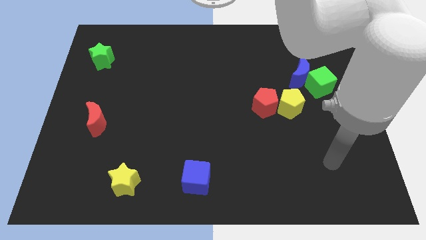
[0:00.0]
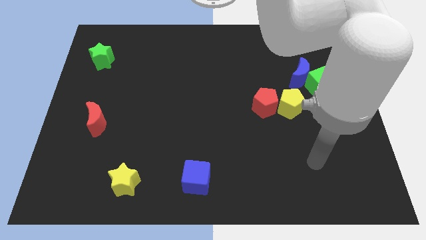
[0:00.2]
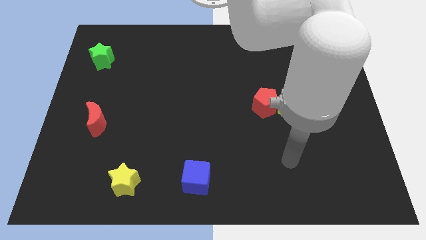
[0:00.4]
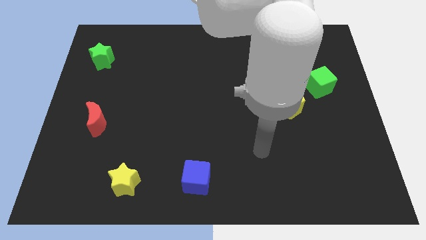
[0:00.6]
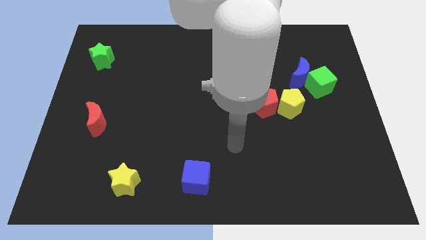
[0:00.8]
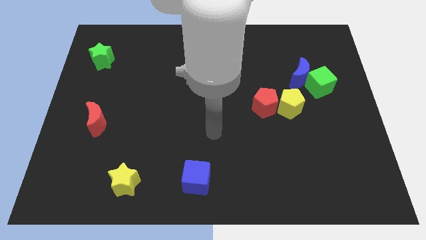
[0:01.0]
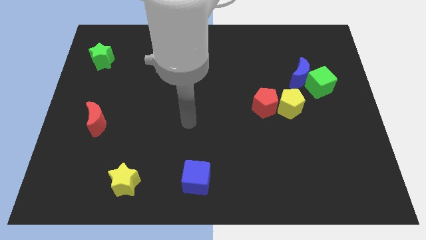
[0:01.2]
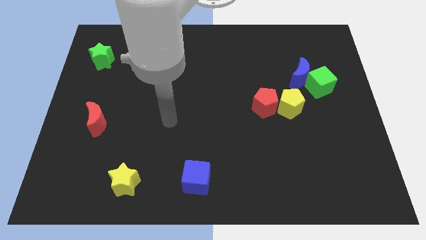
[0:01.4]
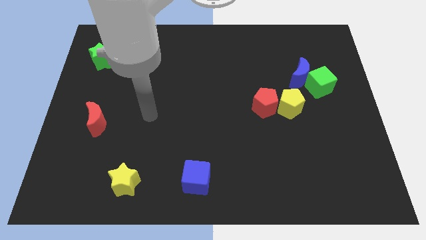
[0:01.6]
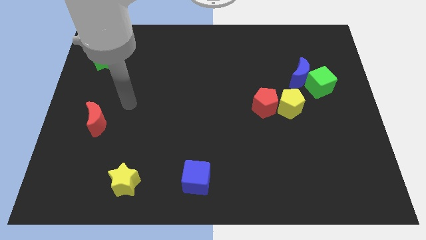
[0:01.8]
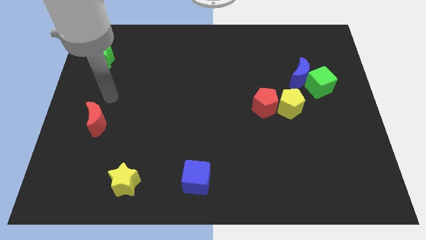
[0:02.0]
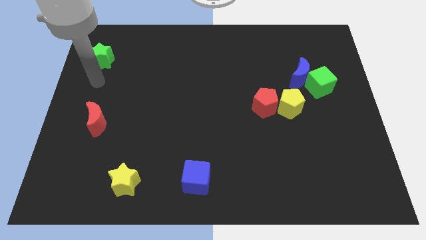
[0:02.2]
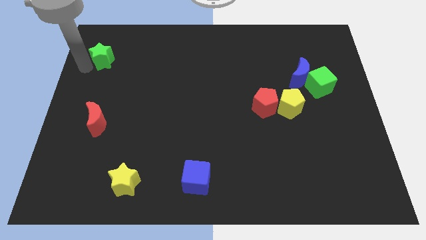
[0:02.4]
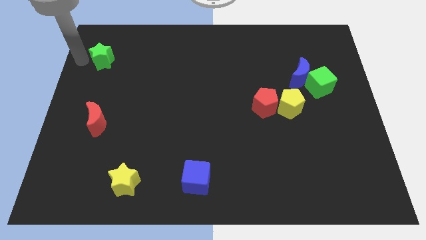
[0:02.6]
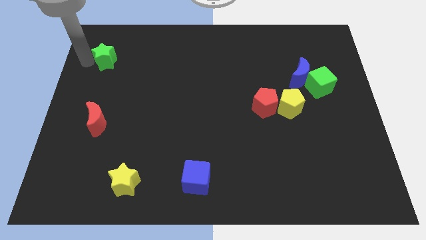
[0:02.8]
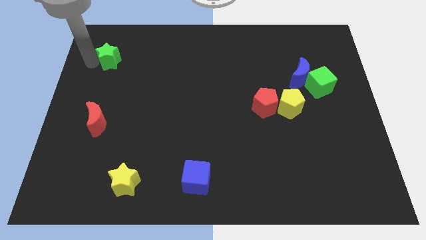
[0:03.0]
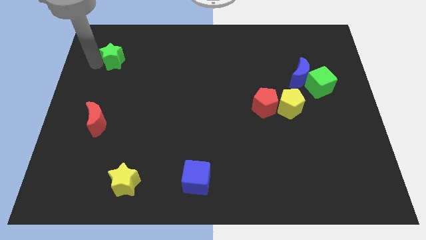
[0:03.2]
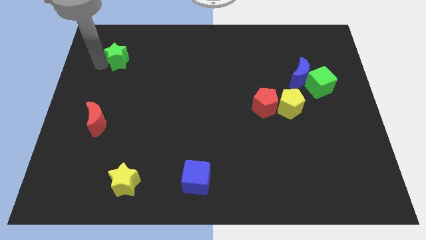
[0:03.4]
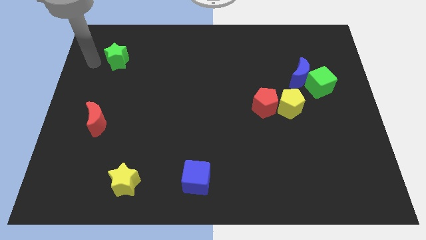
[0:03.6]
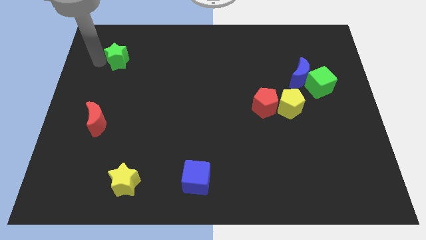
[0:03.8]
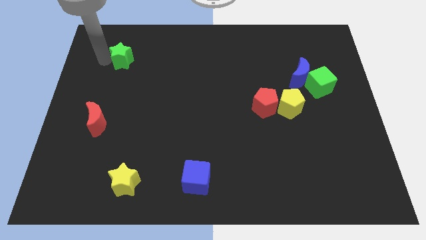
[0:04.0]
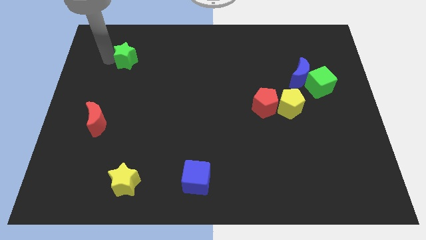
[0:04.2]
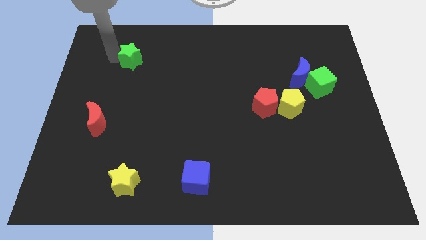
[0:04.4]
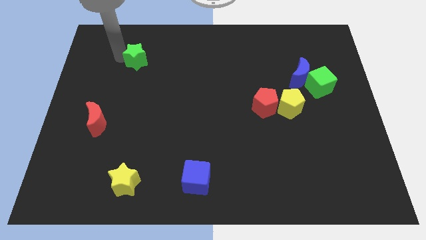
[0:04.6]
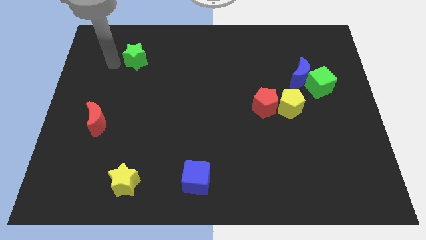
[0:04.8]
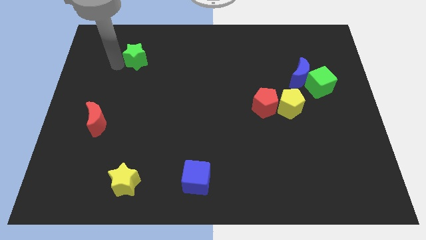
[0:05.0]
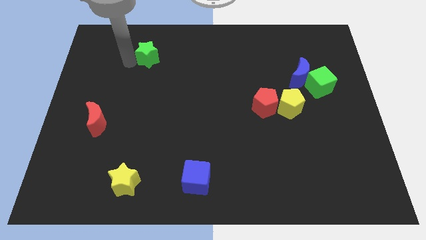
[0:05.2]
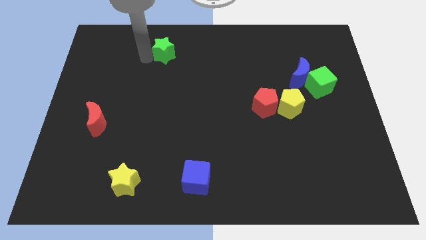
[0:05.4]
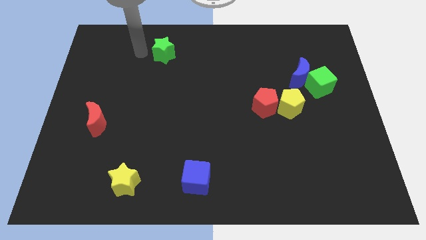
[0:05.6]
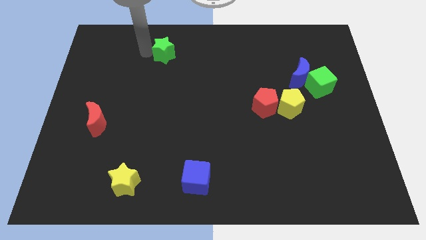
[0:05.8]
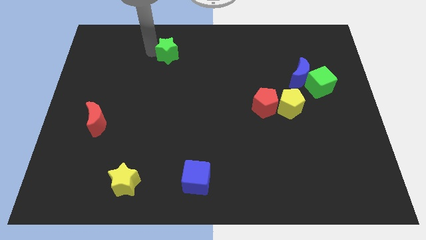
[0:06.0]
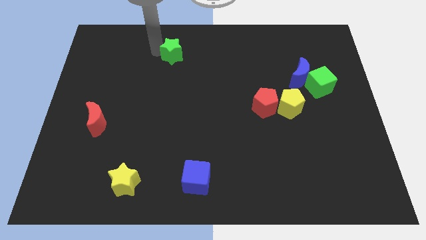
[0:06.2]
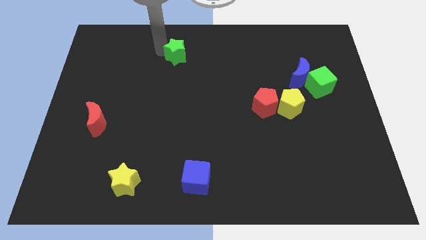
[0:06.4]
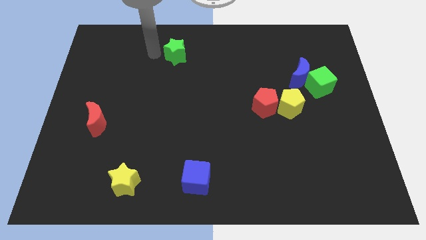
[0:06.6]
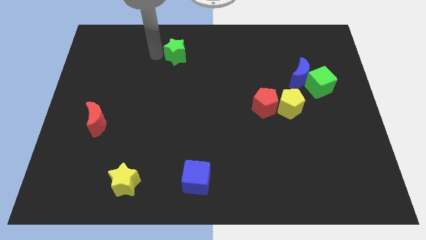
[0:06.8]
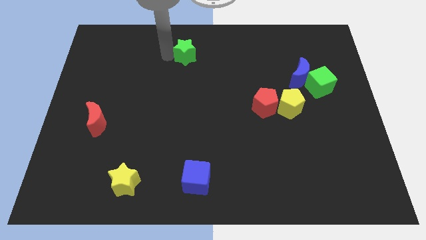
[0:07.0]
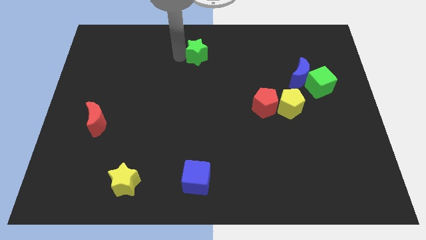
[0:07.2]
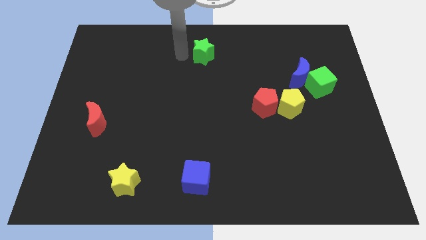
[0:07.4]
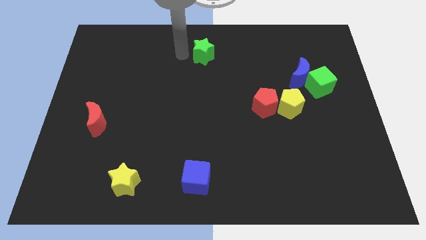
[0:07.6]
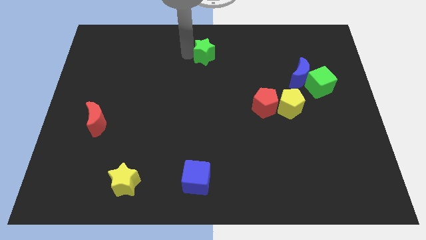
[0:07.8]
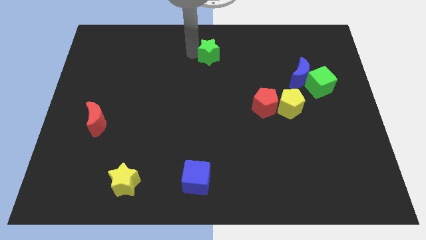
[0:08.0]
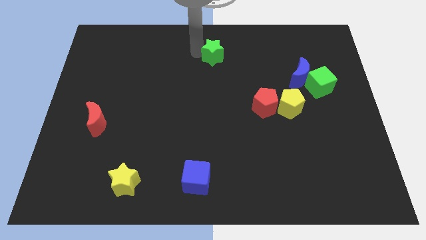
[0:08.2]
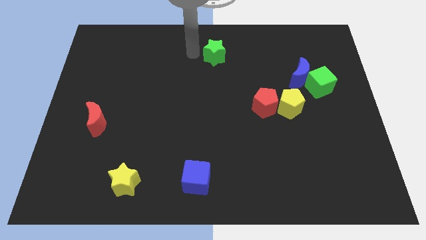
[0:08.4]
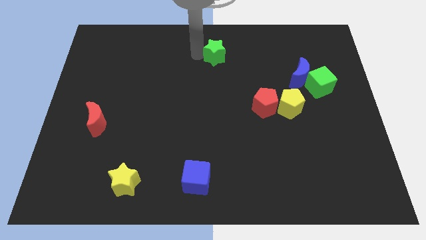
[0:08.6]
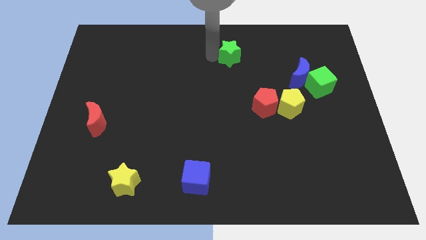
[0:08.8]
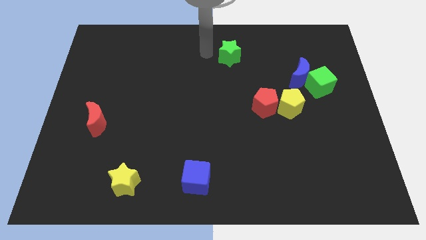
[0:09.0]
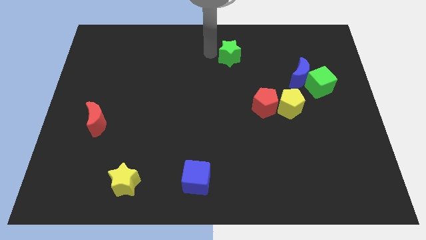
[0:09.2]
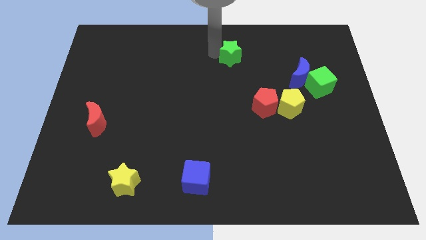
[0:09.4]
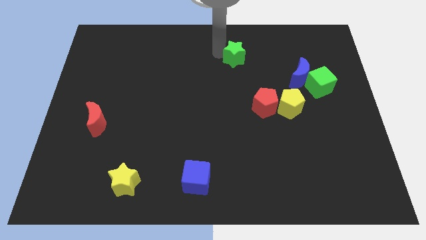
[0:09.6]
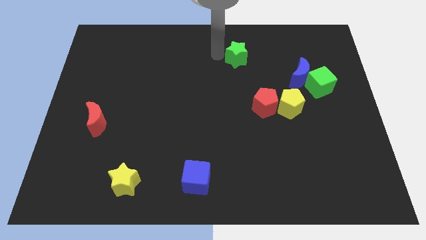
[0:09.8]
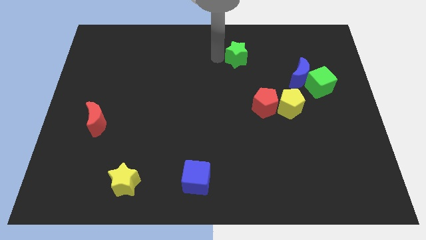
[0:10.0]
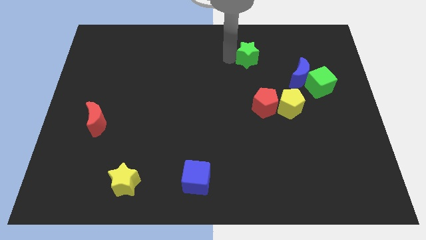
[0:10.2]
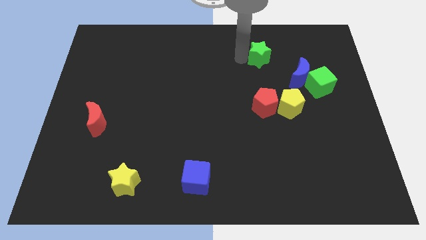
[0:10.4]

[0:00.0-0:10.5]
move the green star diagonally up and to the left of the blue moon

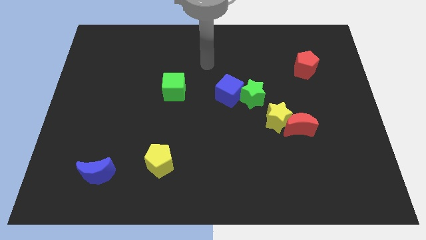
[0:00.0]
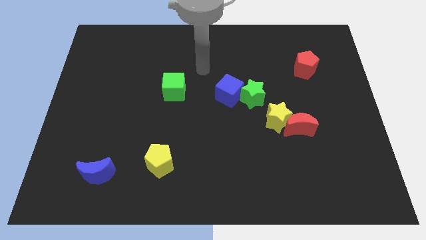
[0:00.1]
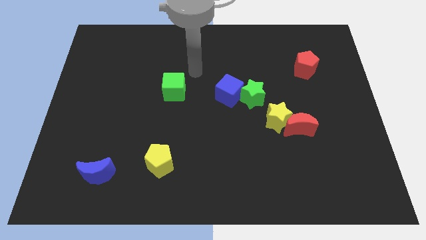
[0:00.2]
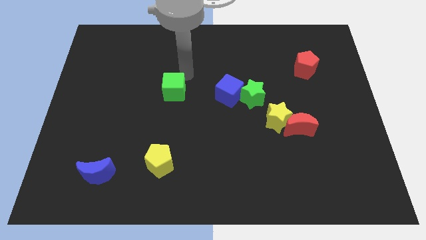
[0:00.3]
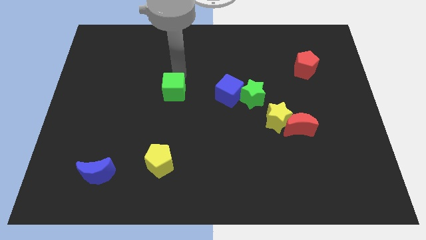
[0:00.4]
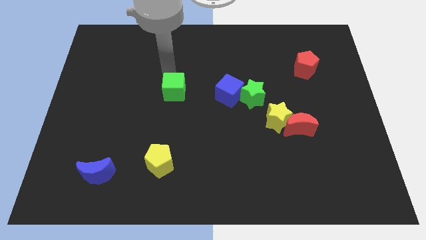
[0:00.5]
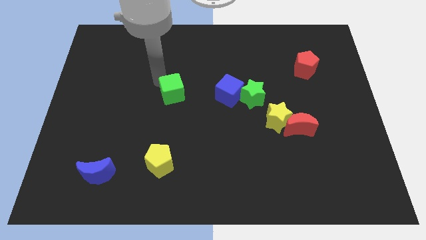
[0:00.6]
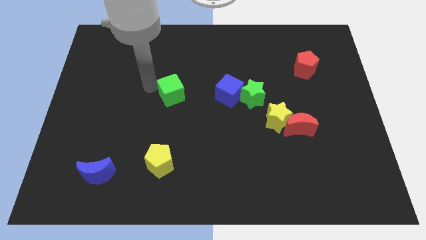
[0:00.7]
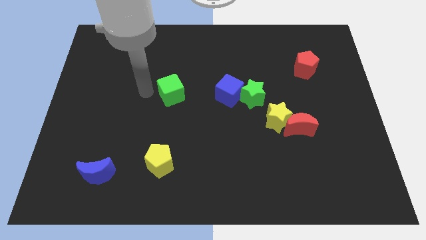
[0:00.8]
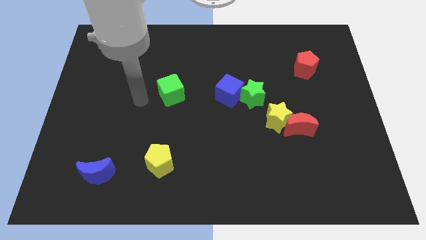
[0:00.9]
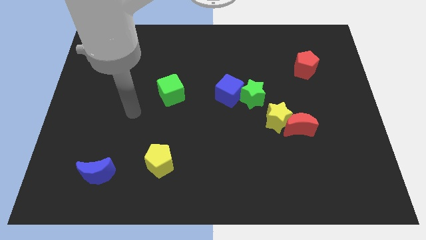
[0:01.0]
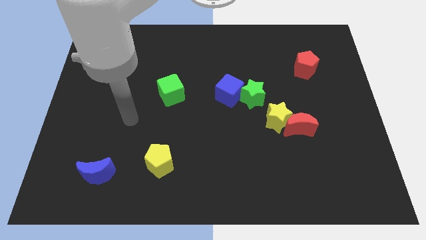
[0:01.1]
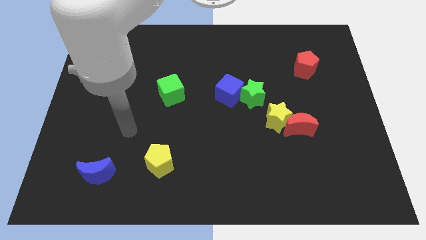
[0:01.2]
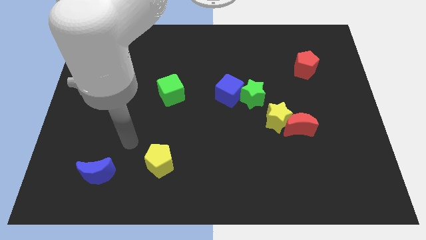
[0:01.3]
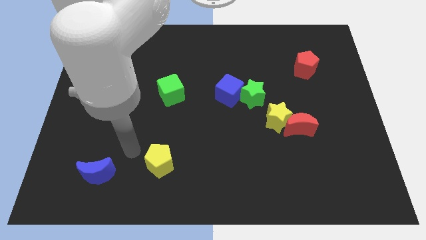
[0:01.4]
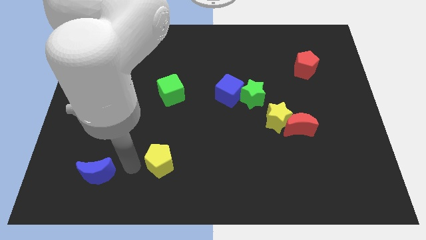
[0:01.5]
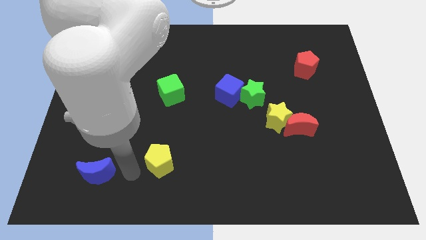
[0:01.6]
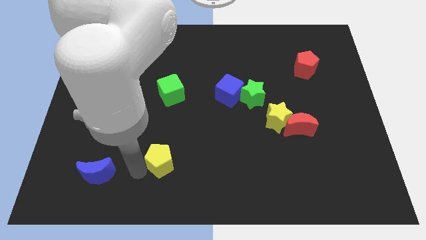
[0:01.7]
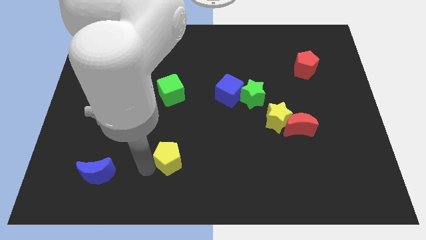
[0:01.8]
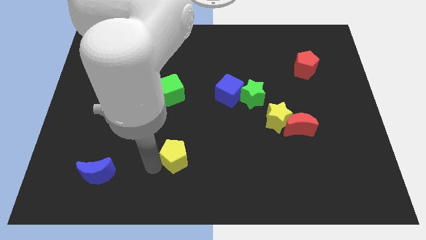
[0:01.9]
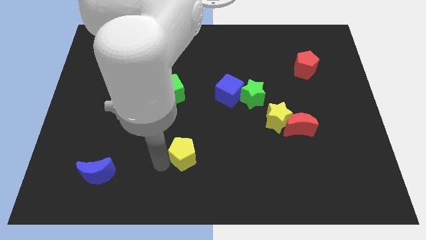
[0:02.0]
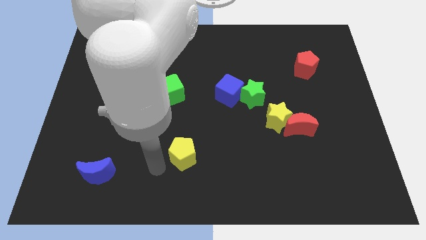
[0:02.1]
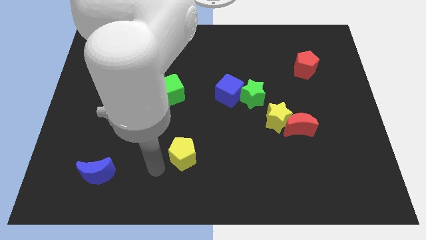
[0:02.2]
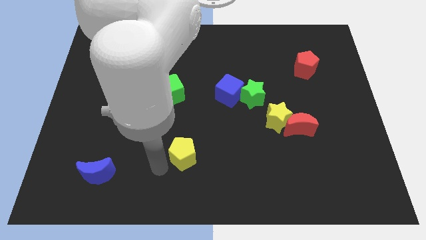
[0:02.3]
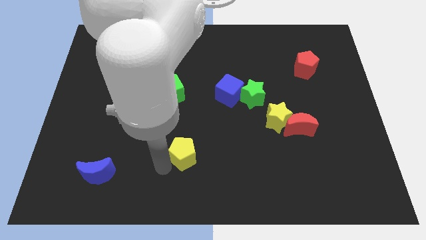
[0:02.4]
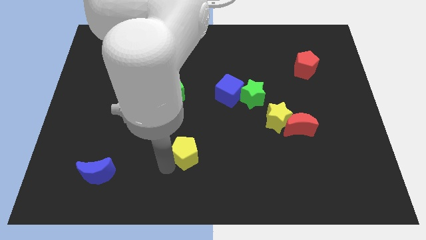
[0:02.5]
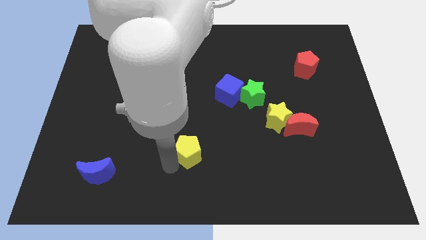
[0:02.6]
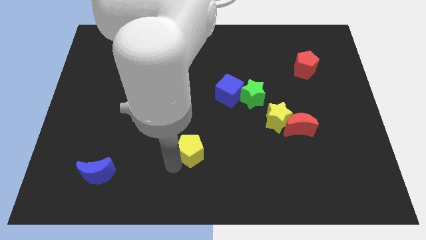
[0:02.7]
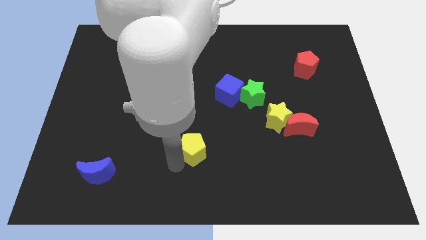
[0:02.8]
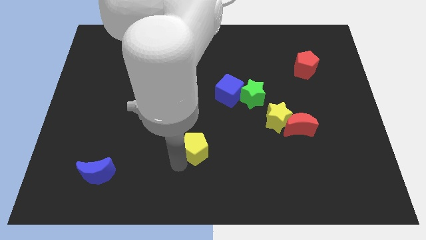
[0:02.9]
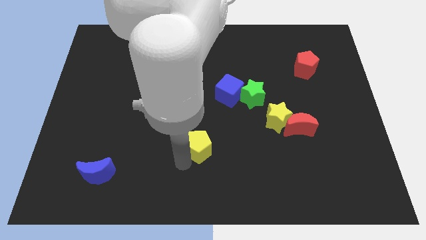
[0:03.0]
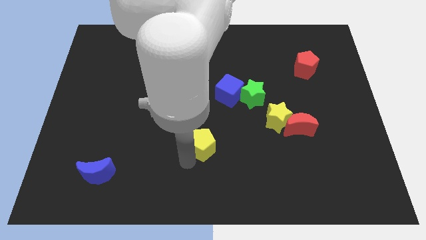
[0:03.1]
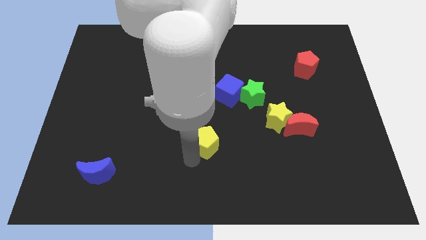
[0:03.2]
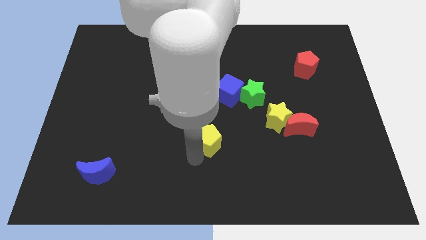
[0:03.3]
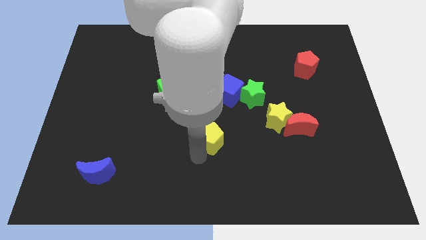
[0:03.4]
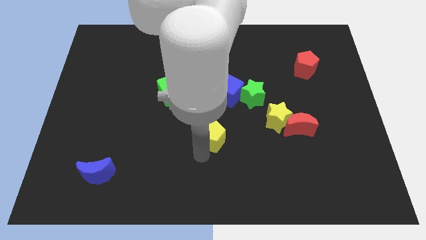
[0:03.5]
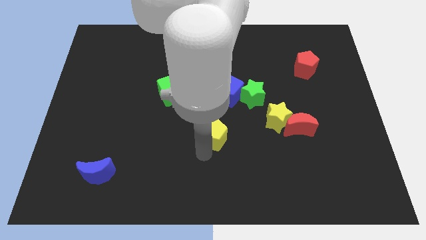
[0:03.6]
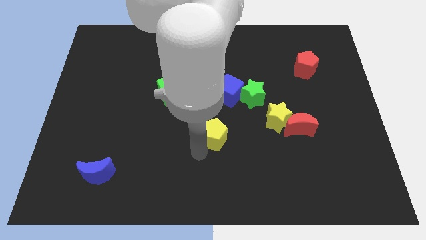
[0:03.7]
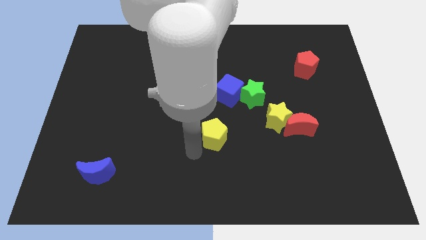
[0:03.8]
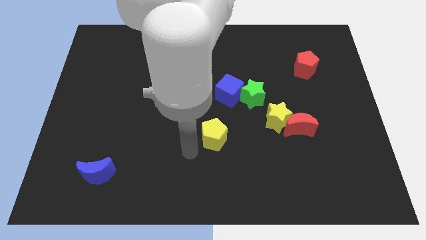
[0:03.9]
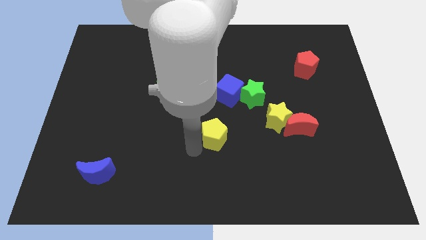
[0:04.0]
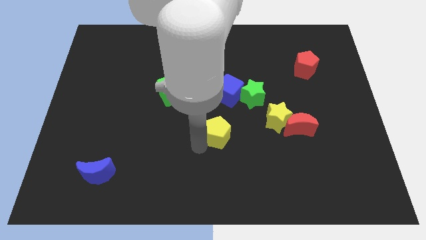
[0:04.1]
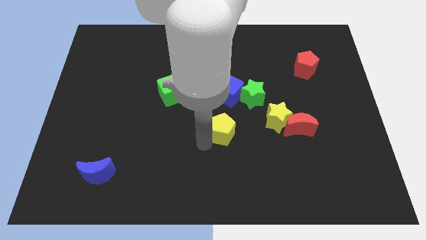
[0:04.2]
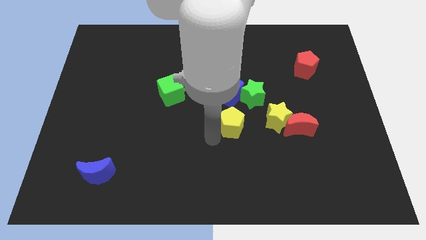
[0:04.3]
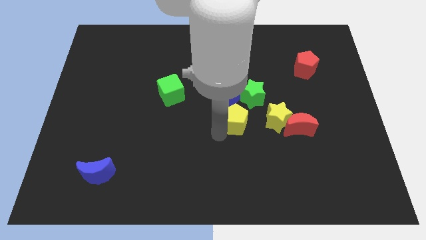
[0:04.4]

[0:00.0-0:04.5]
slide the yellow pentagon to the bottom right of the blue cube
